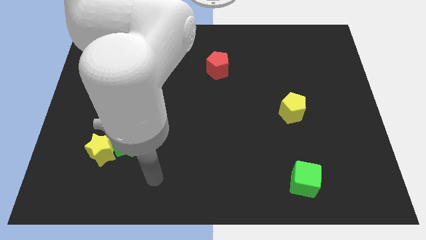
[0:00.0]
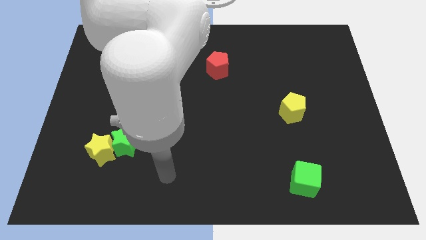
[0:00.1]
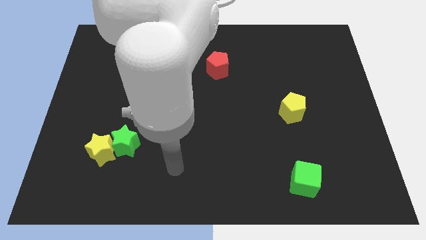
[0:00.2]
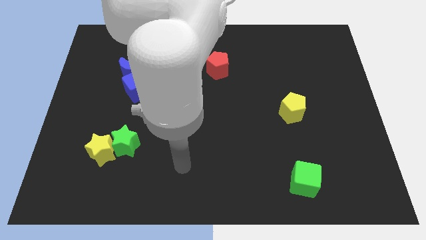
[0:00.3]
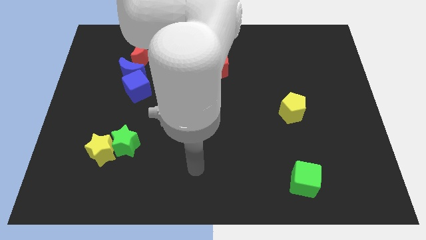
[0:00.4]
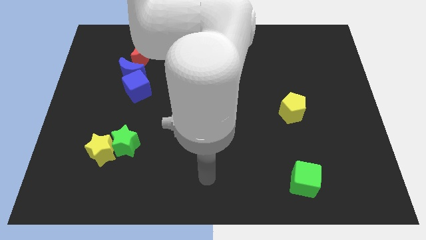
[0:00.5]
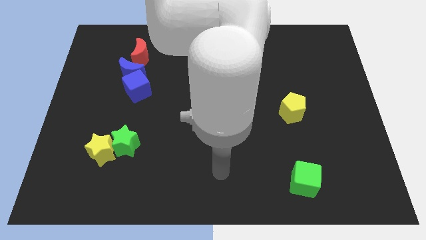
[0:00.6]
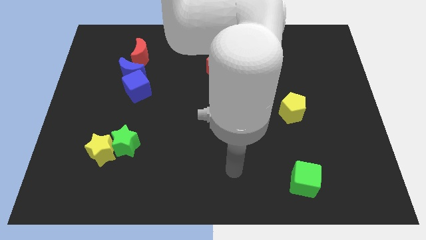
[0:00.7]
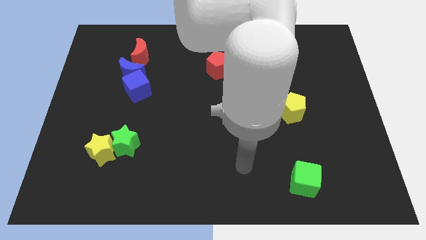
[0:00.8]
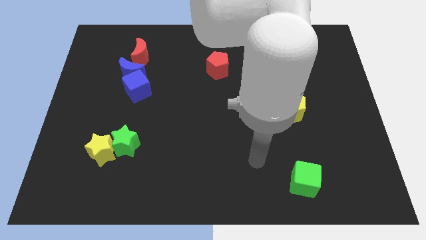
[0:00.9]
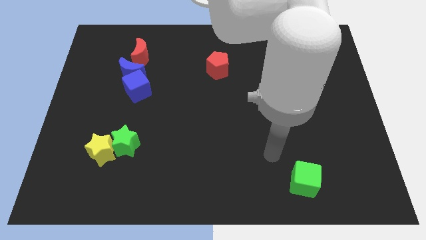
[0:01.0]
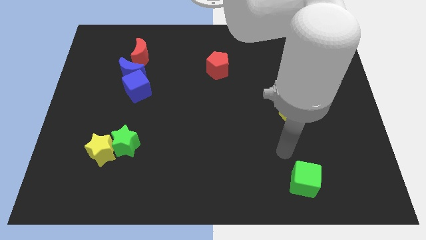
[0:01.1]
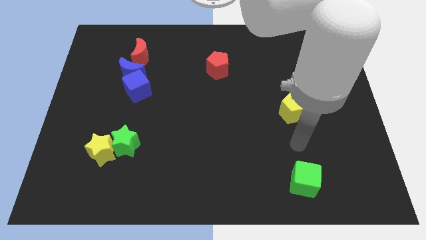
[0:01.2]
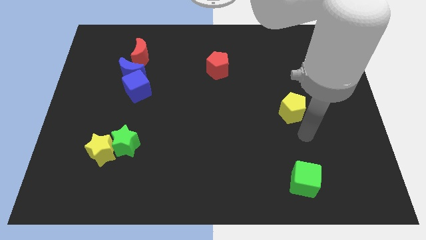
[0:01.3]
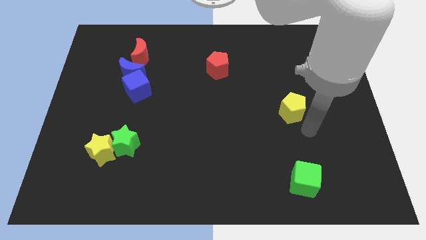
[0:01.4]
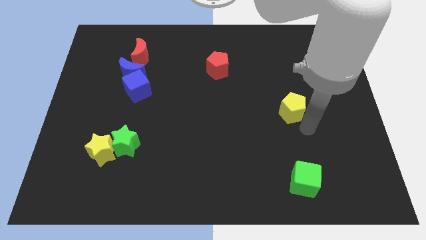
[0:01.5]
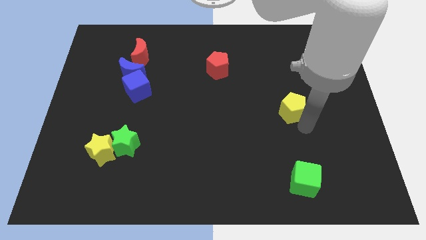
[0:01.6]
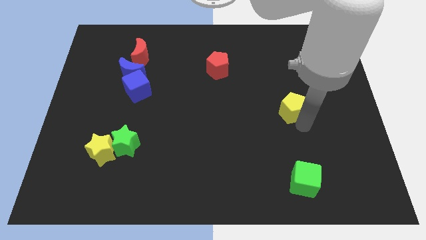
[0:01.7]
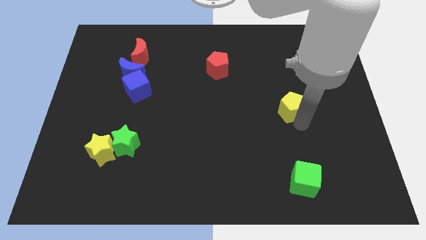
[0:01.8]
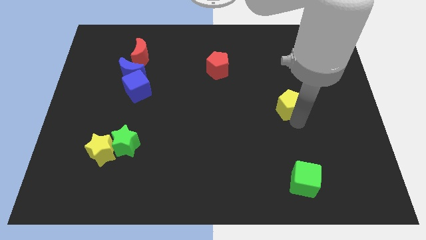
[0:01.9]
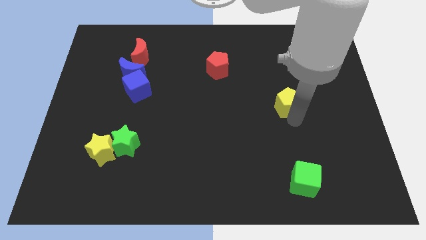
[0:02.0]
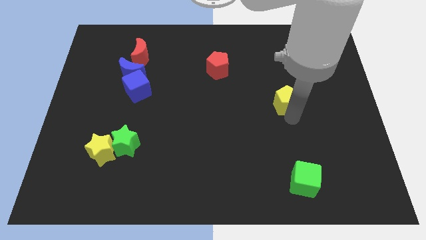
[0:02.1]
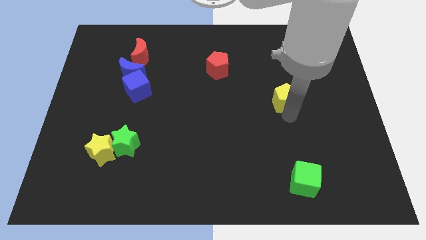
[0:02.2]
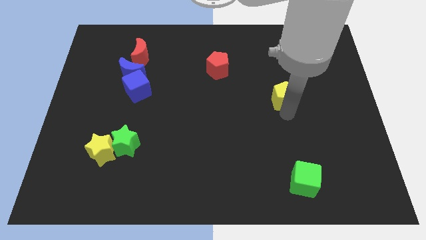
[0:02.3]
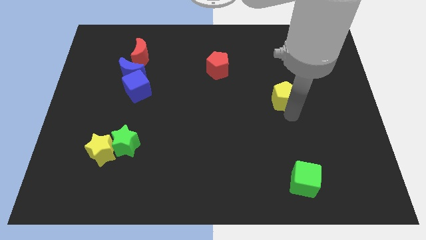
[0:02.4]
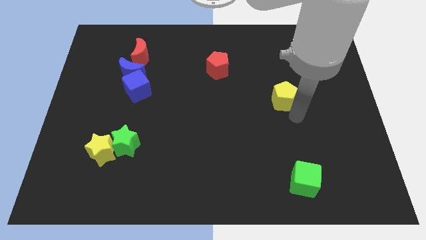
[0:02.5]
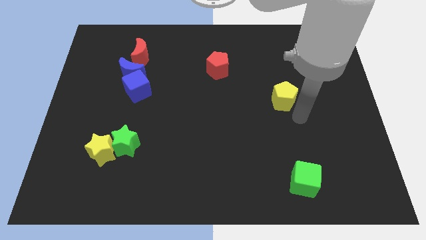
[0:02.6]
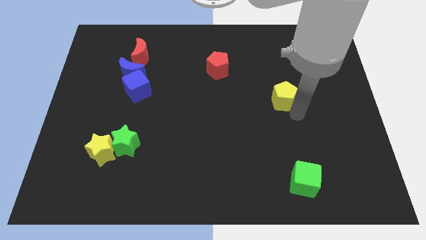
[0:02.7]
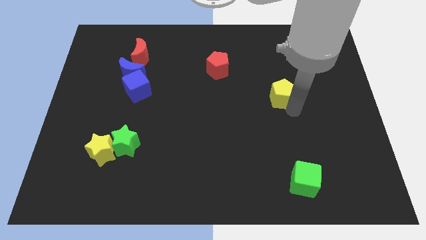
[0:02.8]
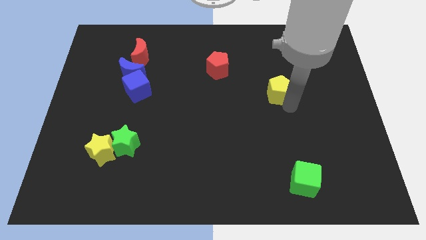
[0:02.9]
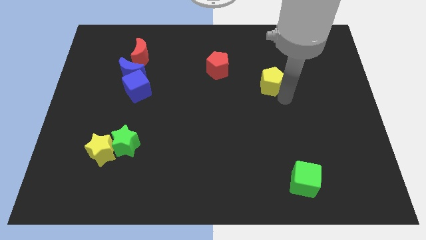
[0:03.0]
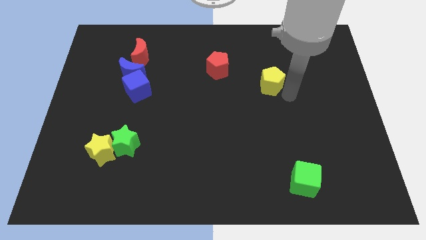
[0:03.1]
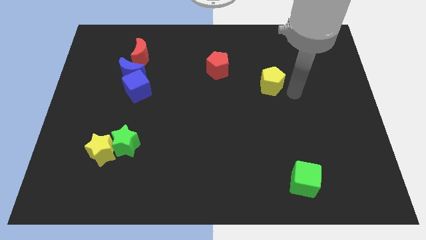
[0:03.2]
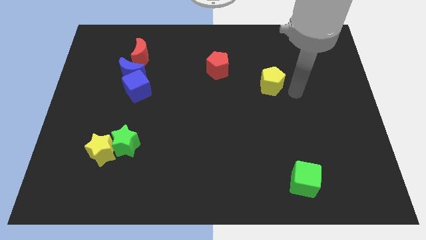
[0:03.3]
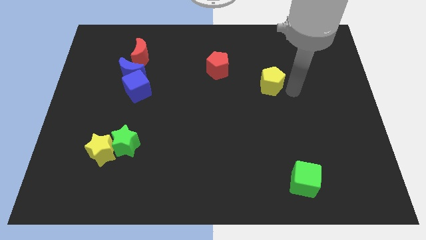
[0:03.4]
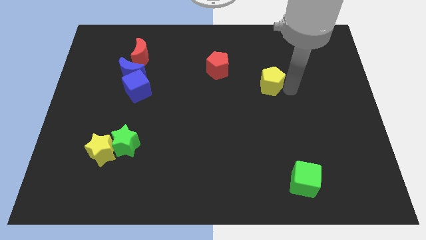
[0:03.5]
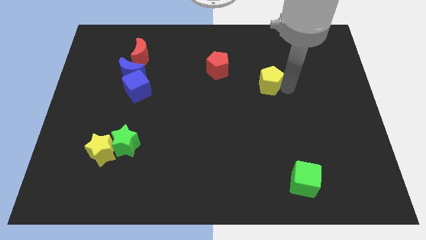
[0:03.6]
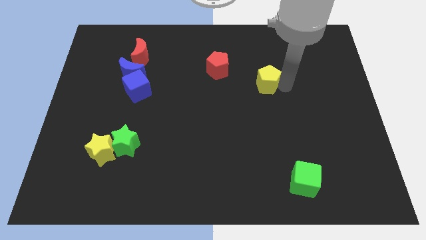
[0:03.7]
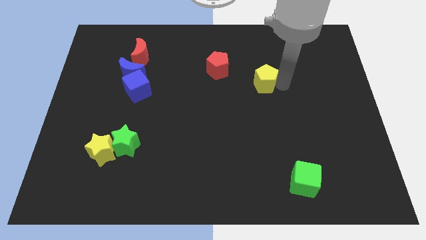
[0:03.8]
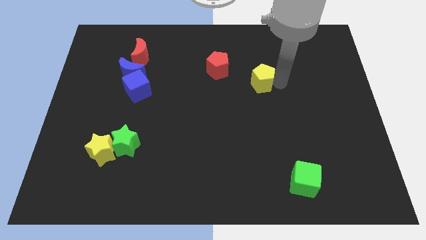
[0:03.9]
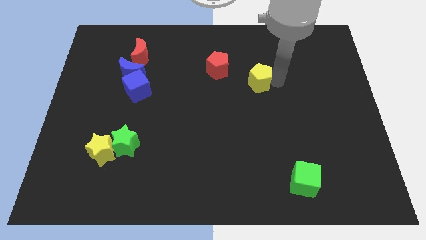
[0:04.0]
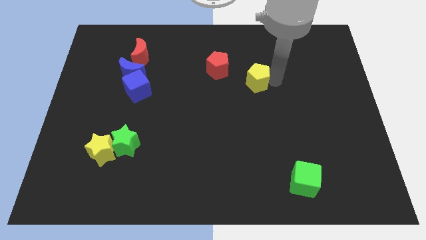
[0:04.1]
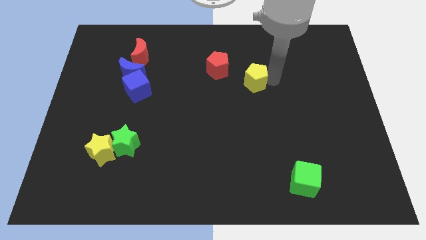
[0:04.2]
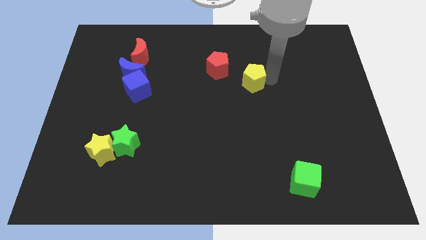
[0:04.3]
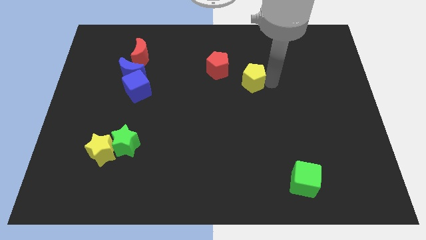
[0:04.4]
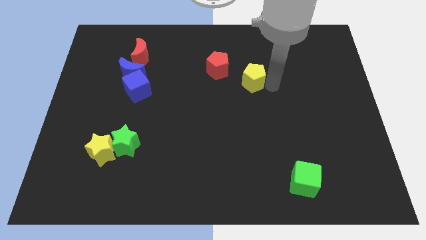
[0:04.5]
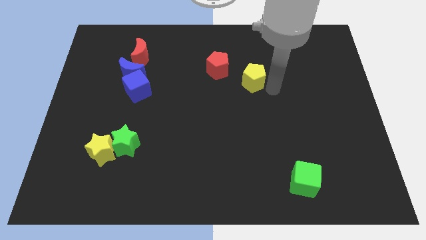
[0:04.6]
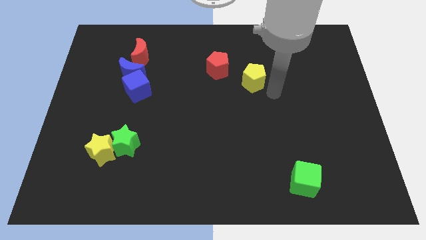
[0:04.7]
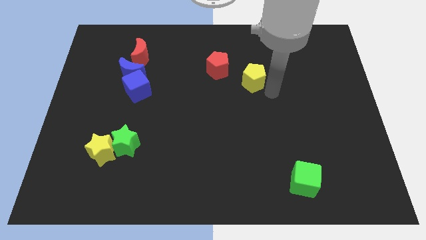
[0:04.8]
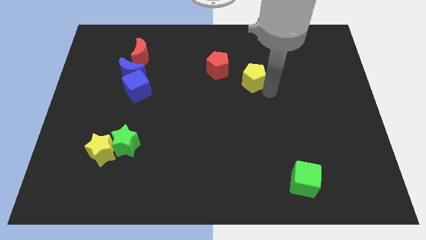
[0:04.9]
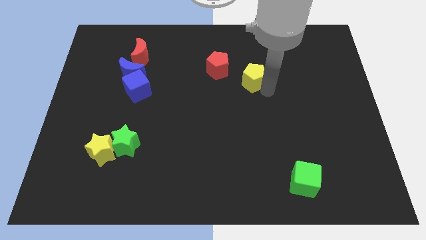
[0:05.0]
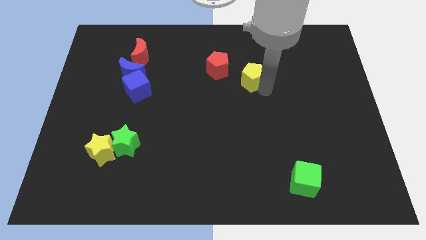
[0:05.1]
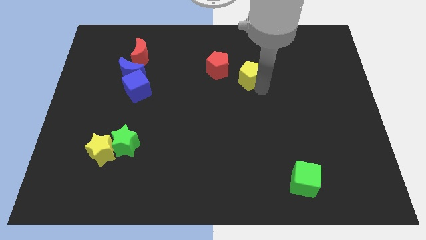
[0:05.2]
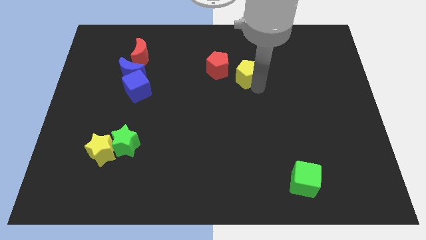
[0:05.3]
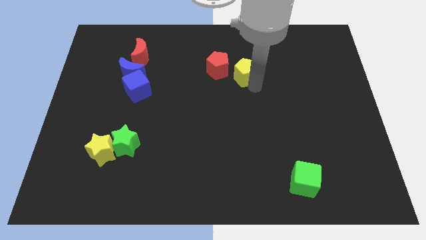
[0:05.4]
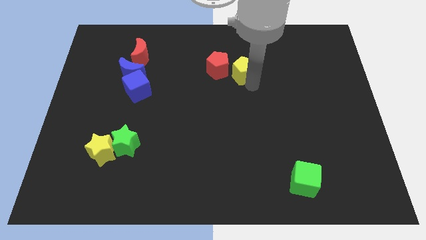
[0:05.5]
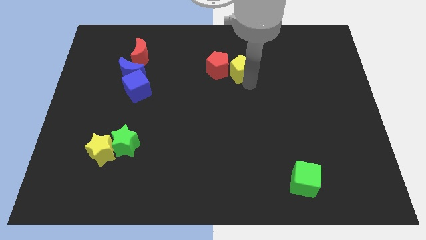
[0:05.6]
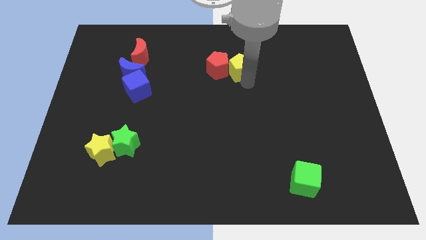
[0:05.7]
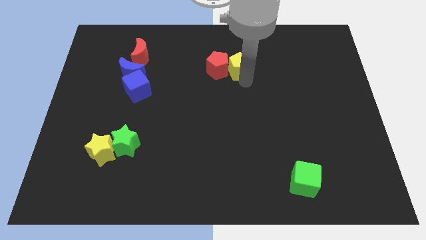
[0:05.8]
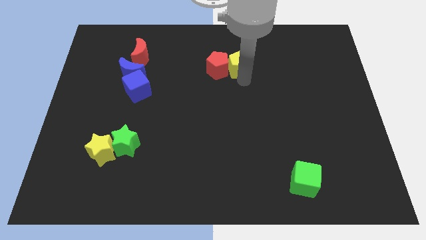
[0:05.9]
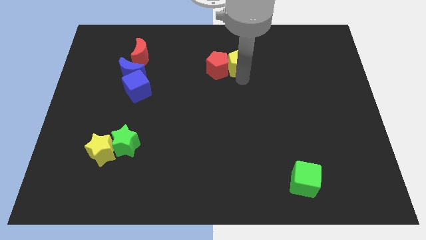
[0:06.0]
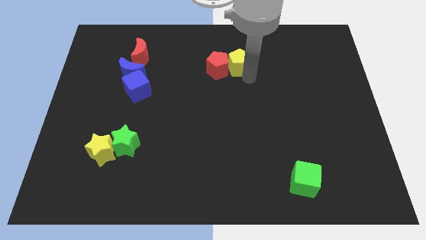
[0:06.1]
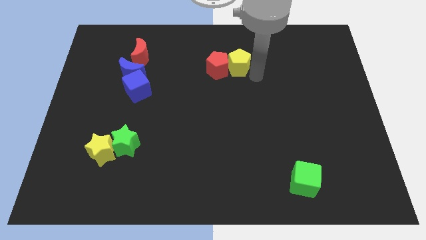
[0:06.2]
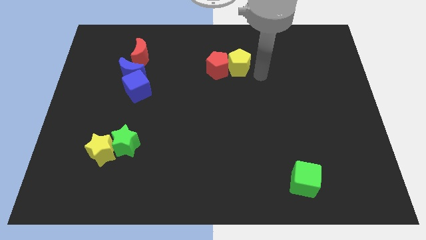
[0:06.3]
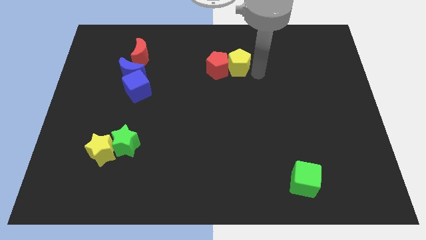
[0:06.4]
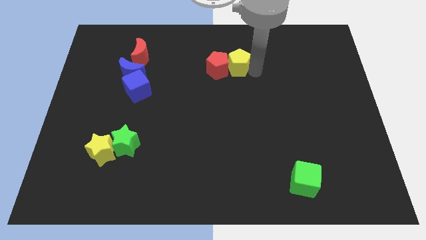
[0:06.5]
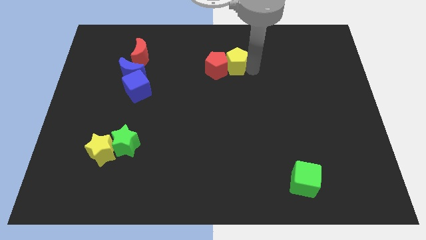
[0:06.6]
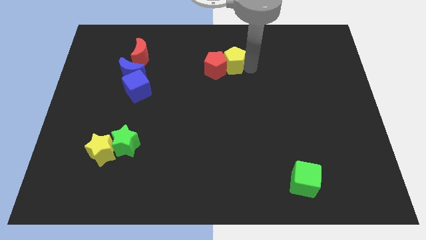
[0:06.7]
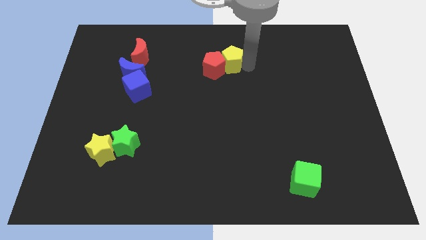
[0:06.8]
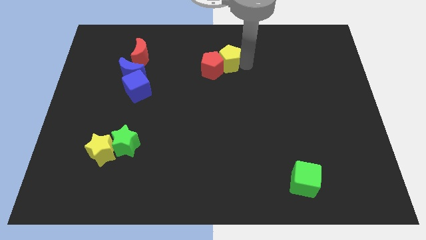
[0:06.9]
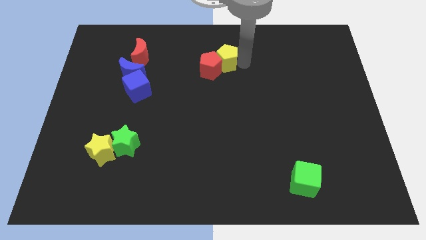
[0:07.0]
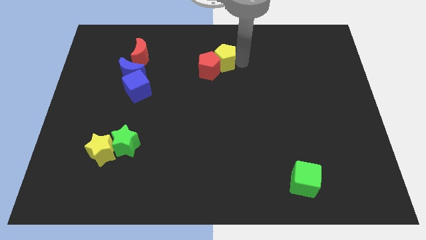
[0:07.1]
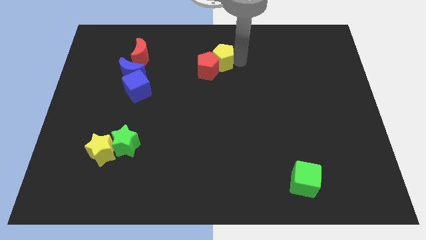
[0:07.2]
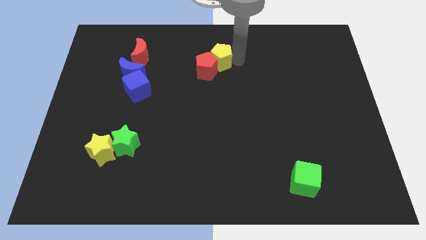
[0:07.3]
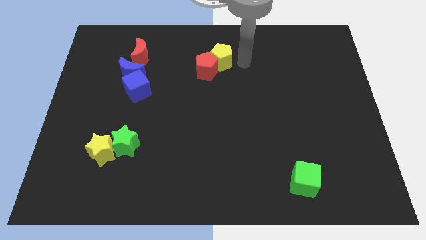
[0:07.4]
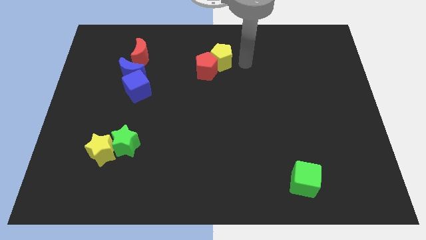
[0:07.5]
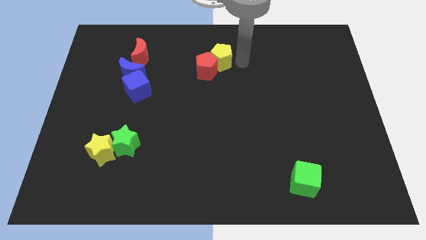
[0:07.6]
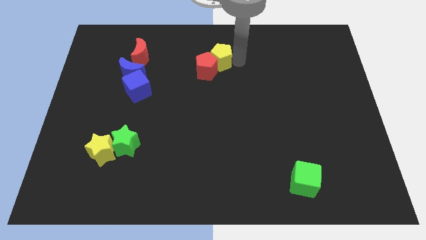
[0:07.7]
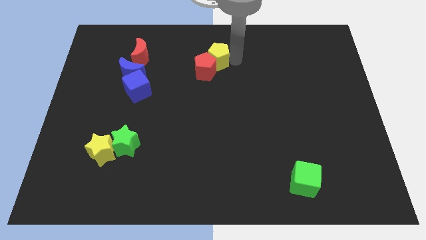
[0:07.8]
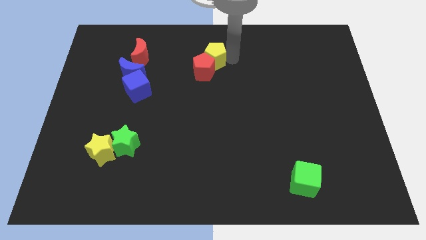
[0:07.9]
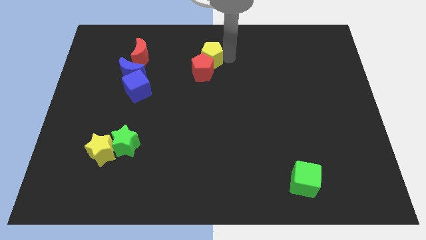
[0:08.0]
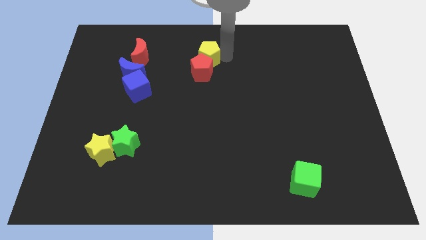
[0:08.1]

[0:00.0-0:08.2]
put the yellow pentagon diagonally up and to the left of the red pentagon
